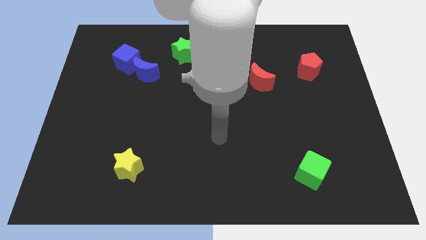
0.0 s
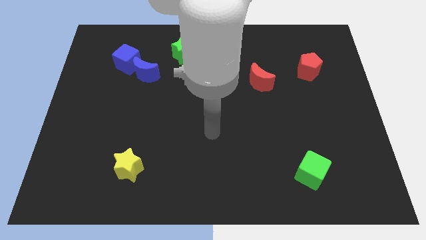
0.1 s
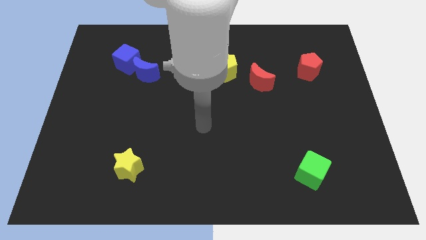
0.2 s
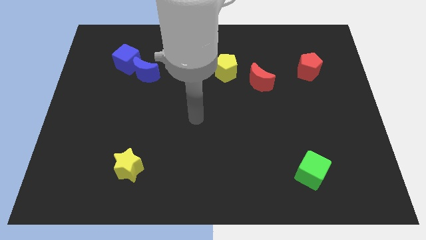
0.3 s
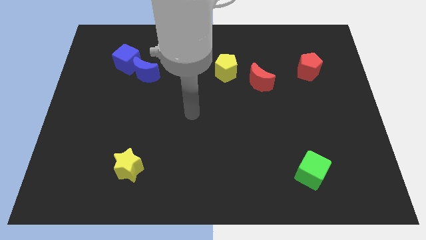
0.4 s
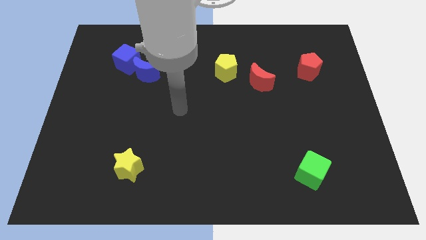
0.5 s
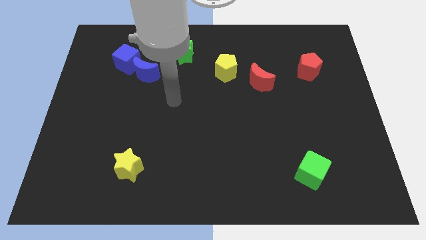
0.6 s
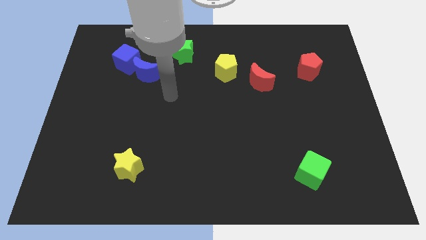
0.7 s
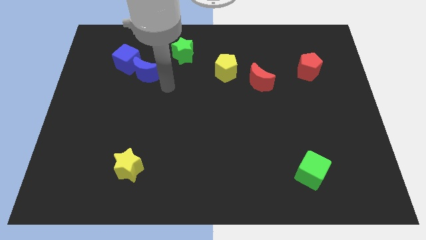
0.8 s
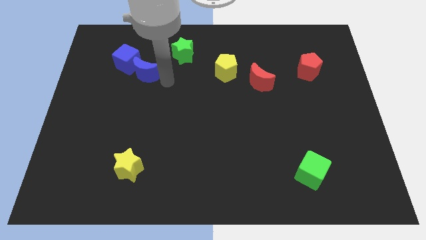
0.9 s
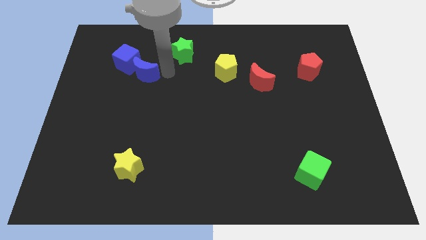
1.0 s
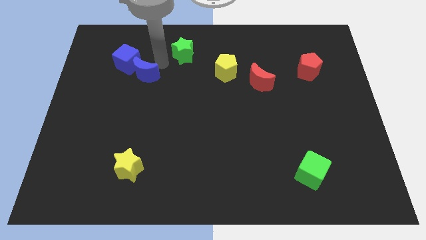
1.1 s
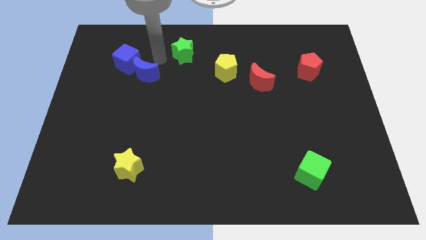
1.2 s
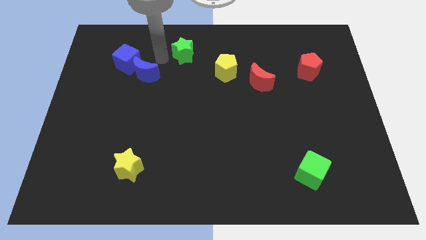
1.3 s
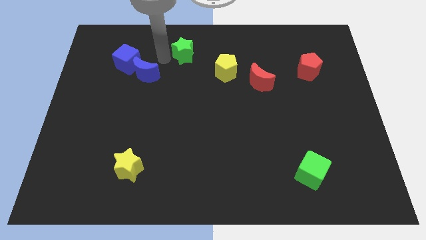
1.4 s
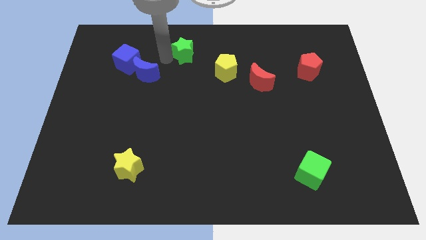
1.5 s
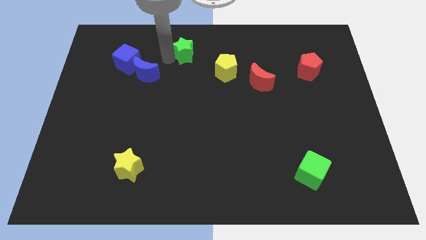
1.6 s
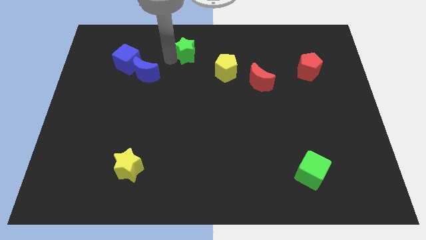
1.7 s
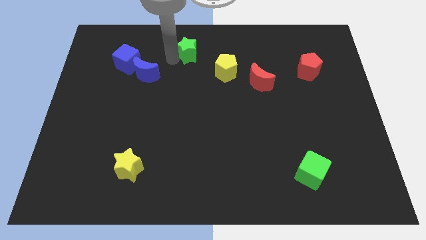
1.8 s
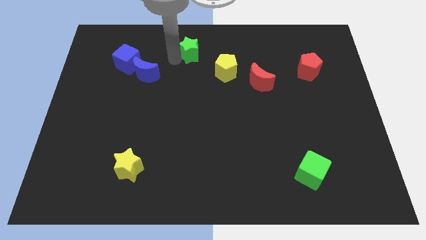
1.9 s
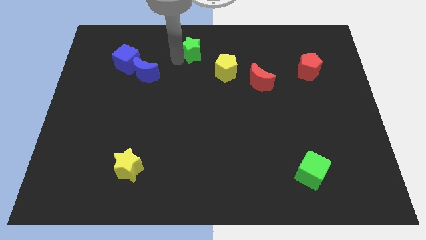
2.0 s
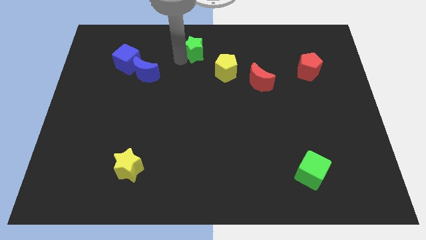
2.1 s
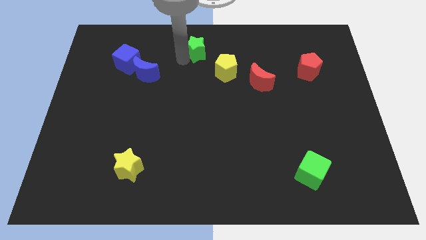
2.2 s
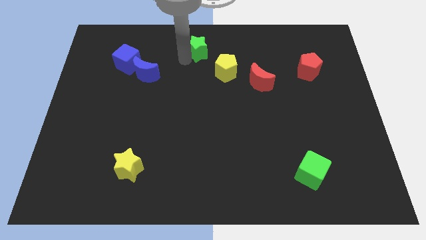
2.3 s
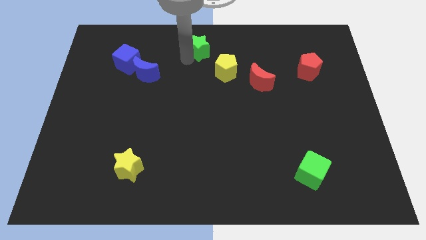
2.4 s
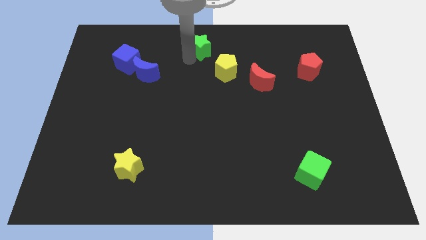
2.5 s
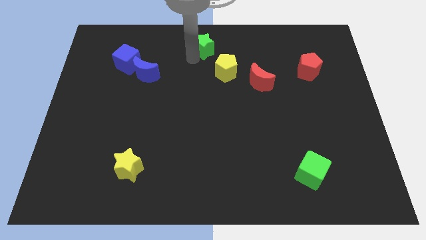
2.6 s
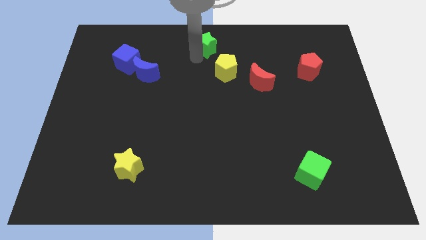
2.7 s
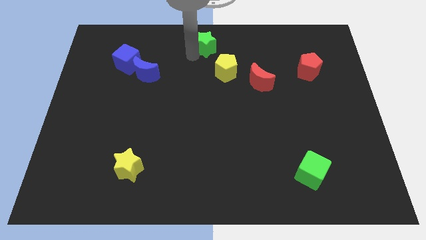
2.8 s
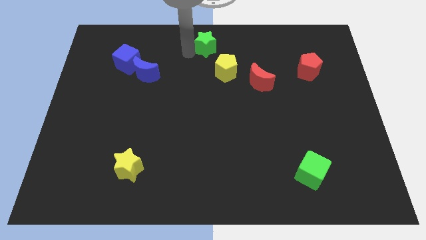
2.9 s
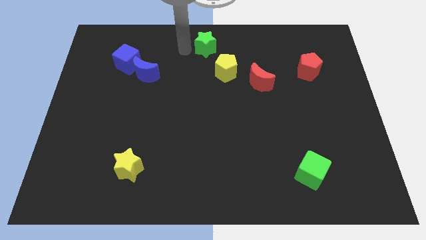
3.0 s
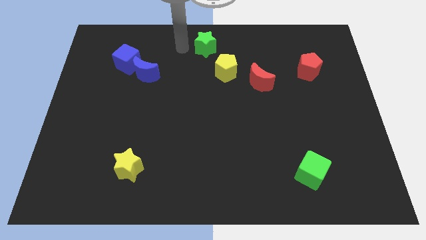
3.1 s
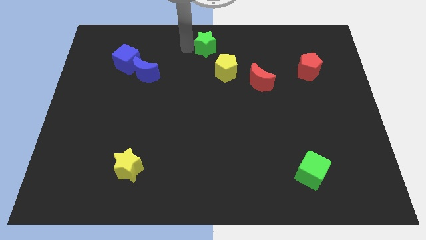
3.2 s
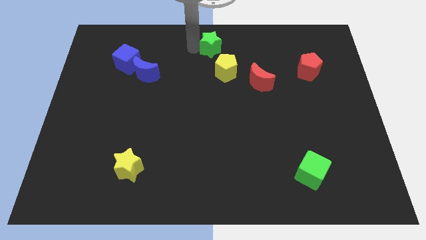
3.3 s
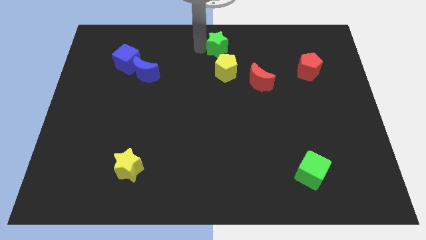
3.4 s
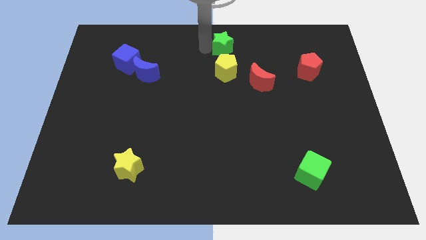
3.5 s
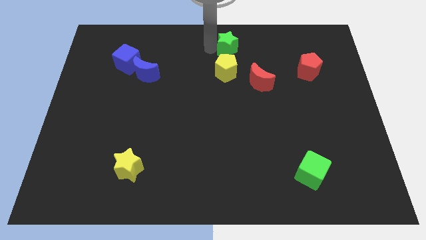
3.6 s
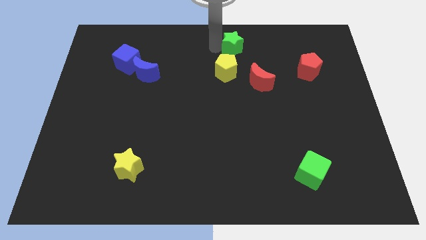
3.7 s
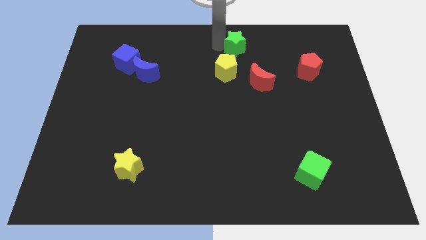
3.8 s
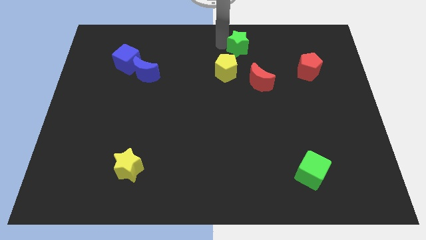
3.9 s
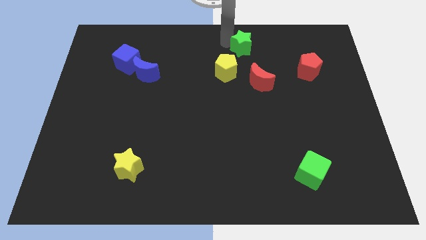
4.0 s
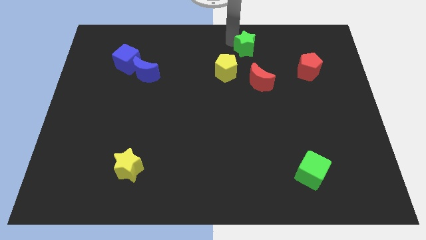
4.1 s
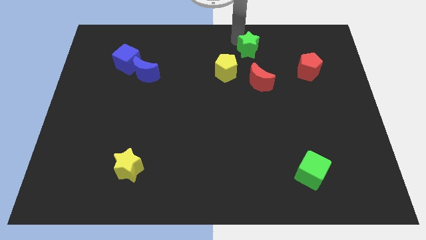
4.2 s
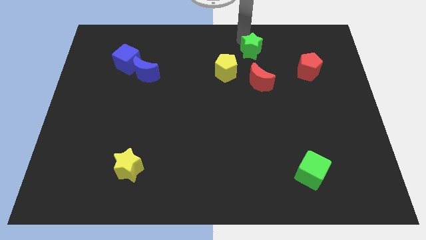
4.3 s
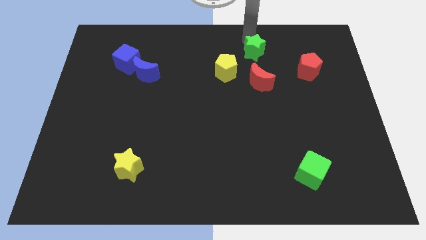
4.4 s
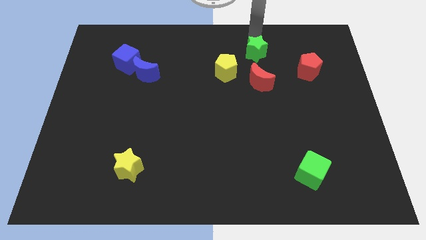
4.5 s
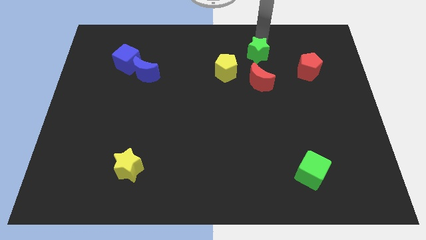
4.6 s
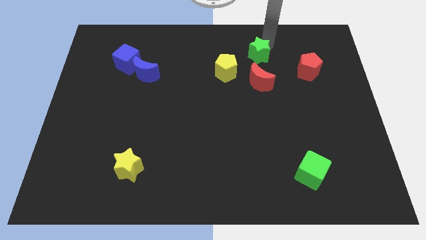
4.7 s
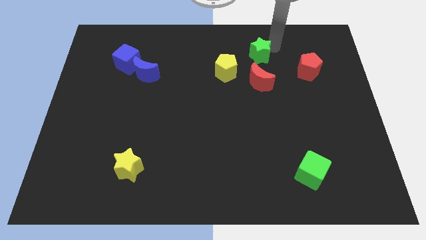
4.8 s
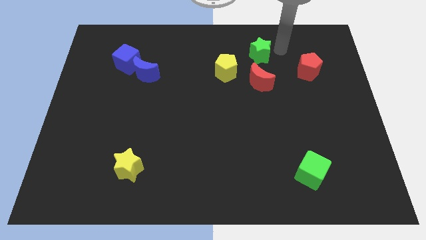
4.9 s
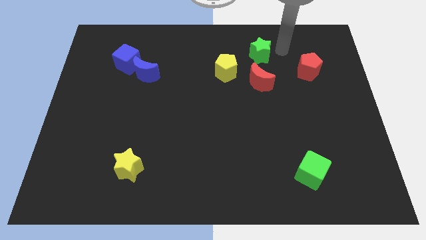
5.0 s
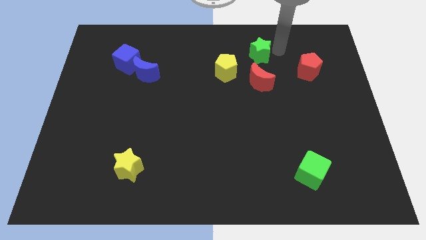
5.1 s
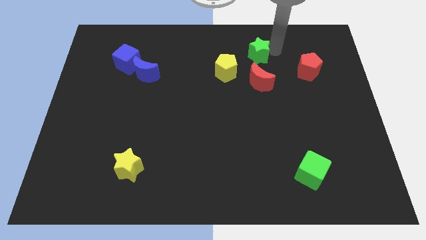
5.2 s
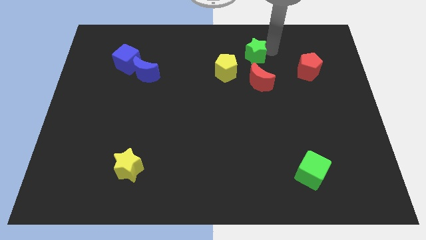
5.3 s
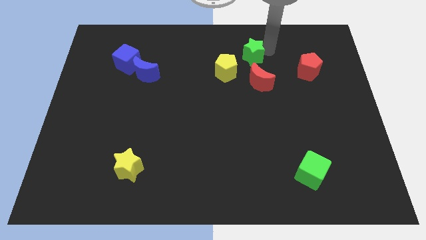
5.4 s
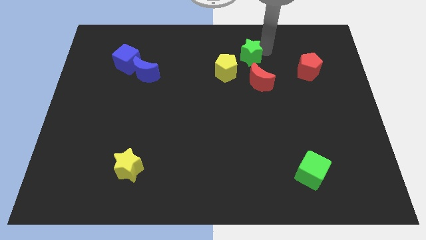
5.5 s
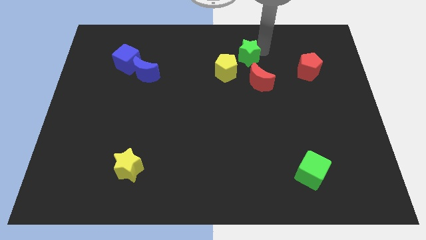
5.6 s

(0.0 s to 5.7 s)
move the green star diagonally up and to the left of the red moon

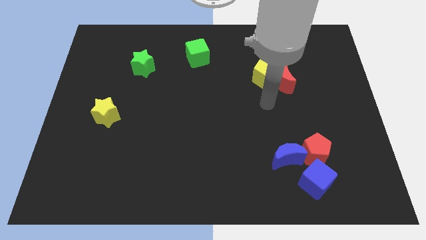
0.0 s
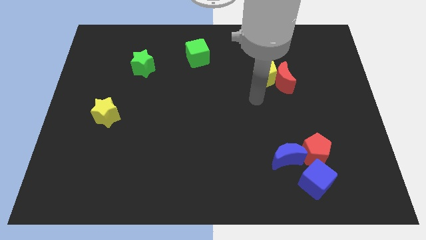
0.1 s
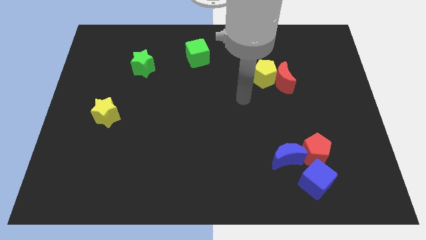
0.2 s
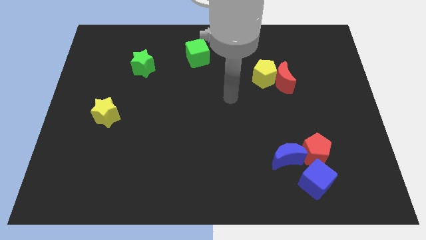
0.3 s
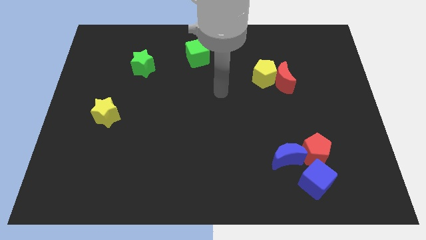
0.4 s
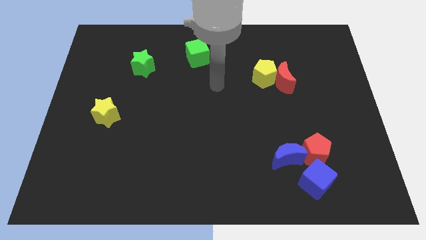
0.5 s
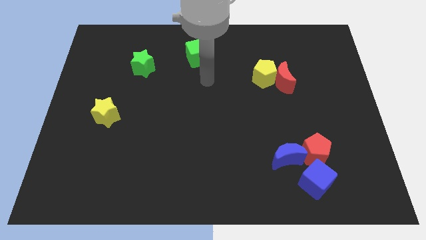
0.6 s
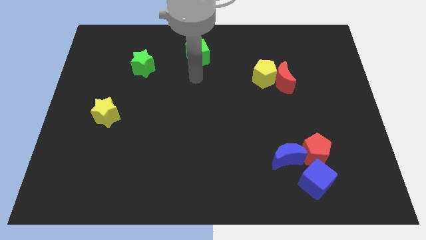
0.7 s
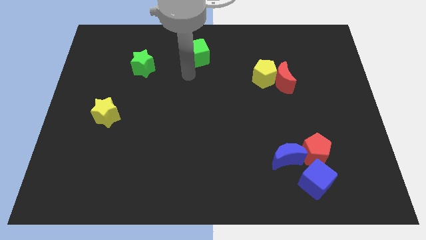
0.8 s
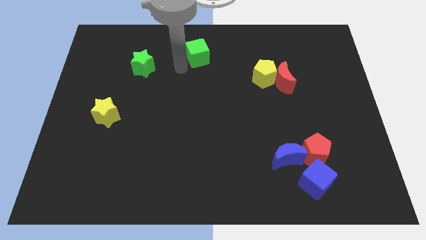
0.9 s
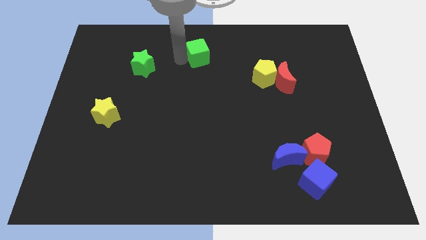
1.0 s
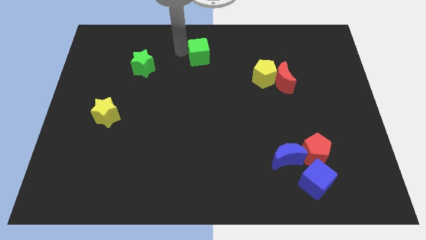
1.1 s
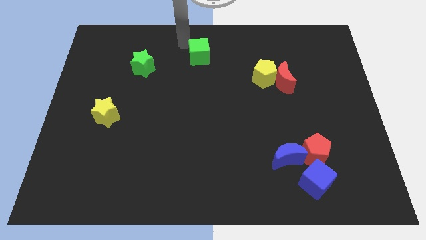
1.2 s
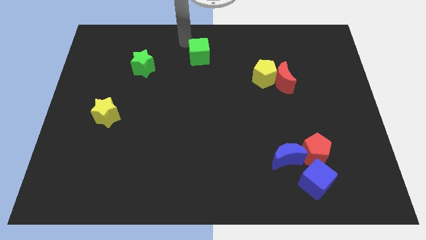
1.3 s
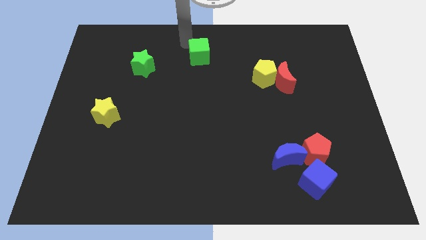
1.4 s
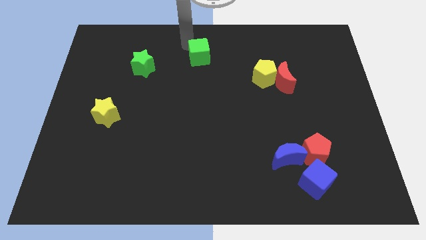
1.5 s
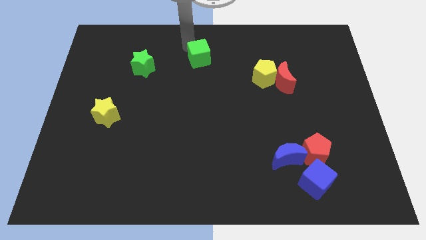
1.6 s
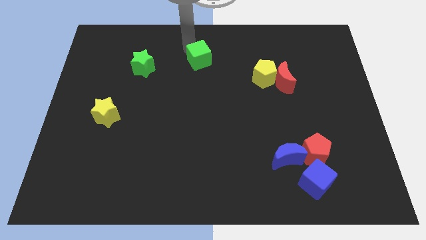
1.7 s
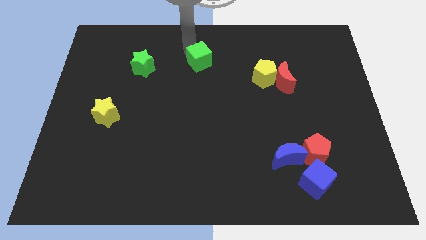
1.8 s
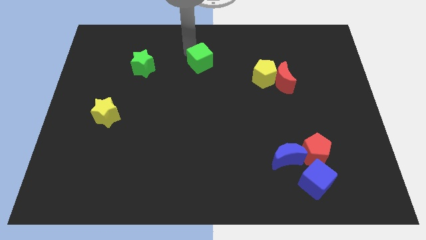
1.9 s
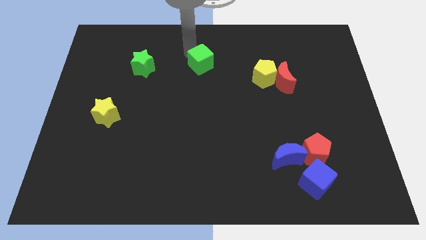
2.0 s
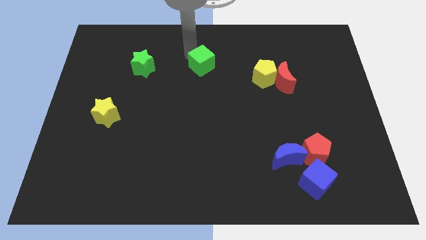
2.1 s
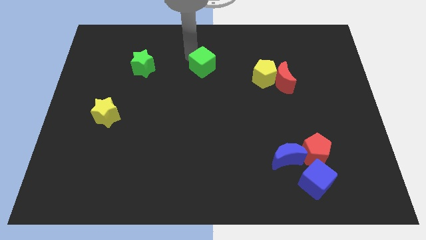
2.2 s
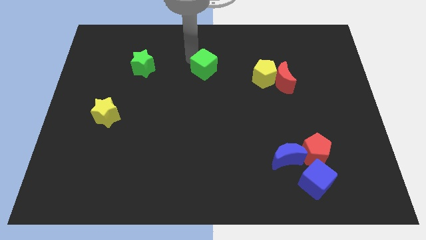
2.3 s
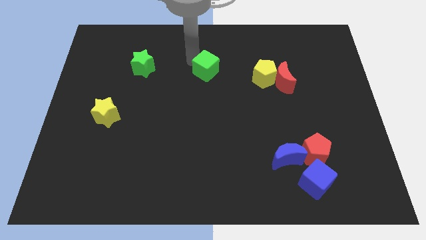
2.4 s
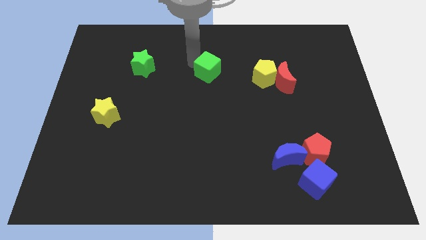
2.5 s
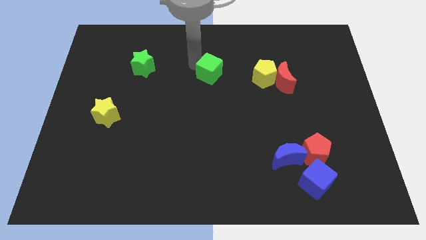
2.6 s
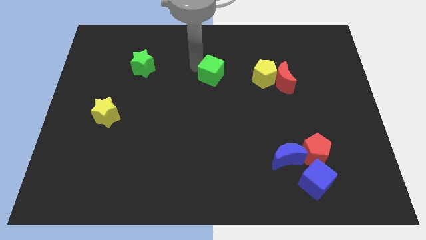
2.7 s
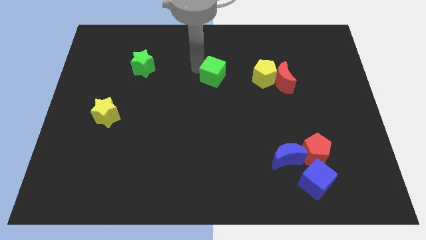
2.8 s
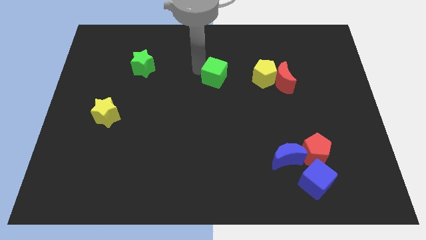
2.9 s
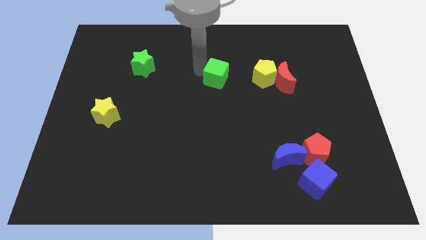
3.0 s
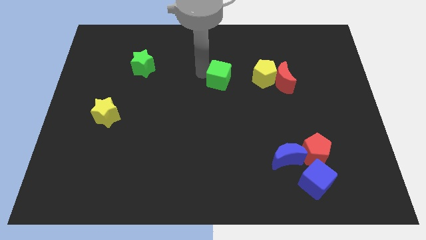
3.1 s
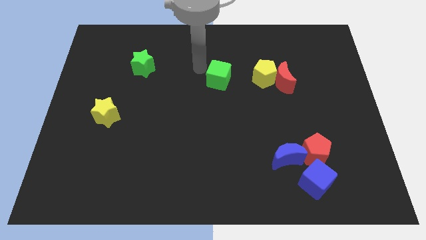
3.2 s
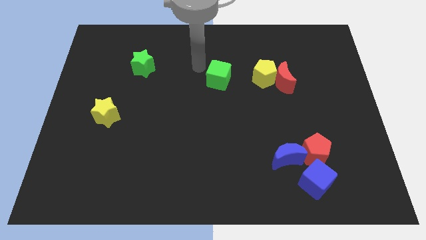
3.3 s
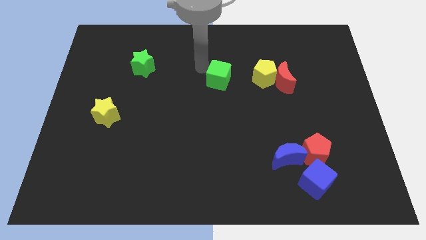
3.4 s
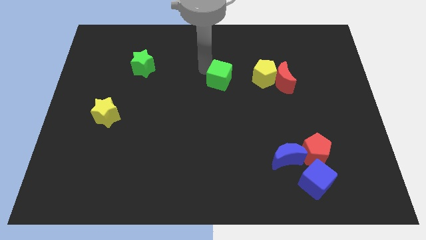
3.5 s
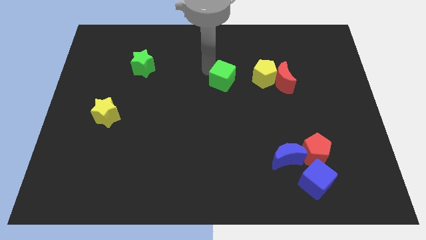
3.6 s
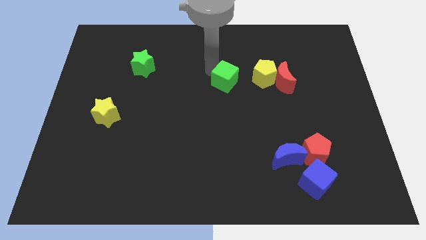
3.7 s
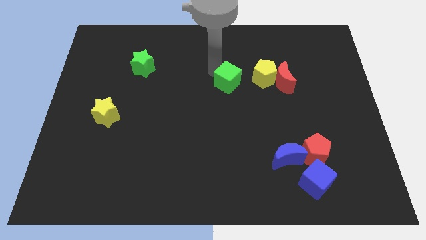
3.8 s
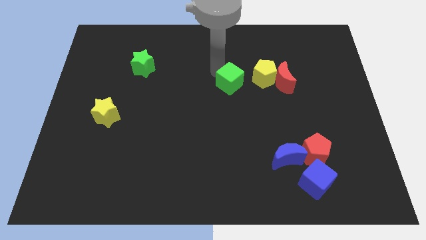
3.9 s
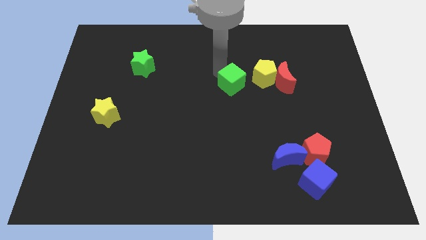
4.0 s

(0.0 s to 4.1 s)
put the green cube to the bottom left side of the yellow pentagon
